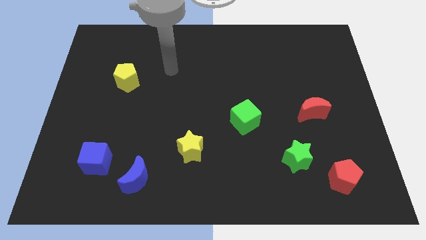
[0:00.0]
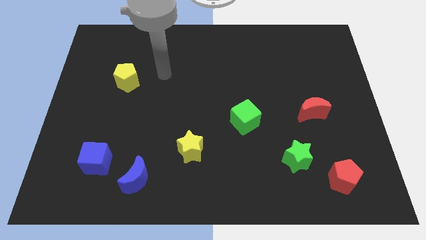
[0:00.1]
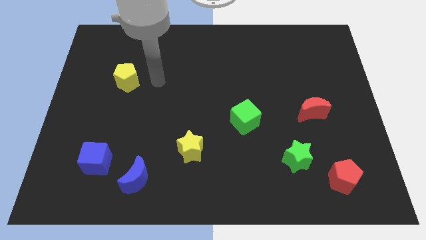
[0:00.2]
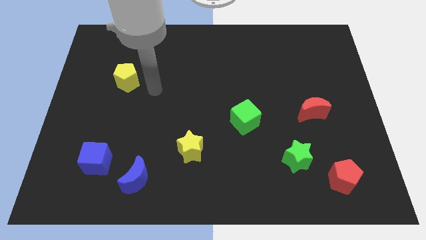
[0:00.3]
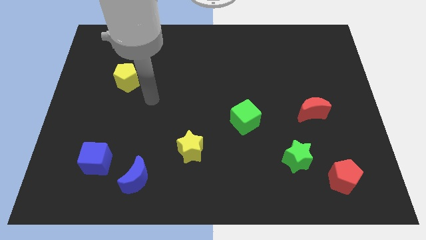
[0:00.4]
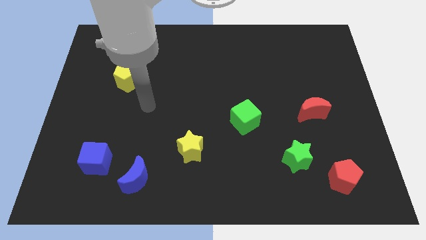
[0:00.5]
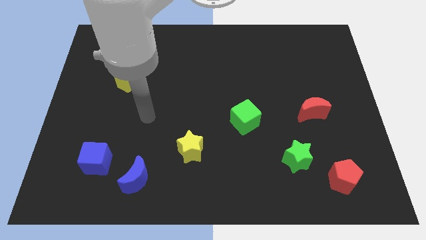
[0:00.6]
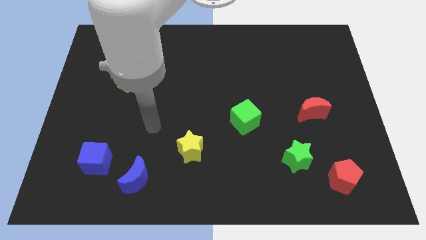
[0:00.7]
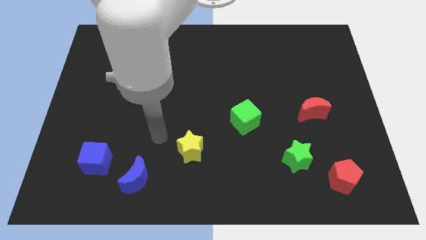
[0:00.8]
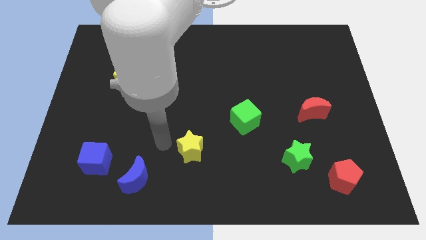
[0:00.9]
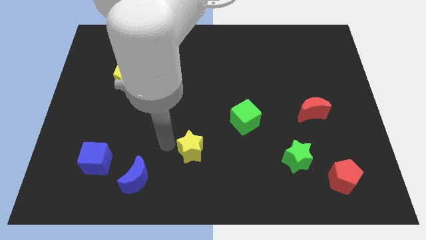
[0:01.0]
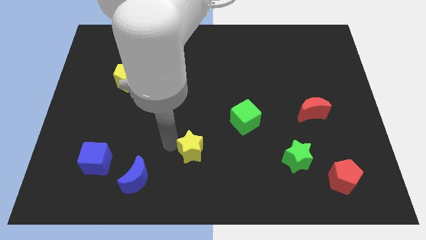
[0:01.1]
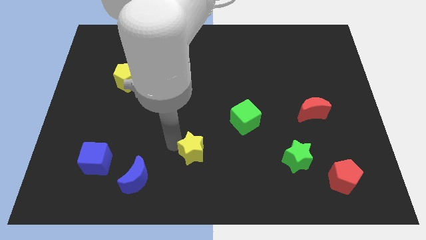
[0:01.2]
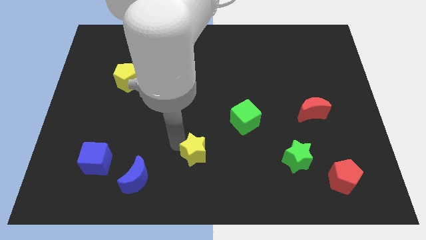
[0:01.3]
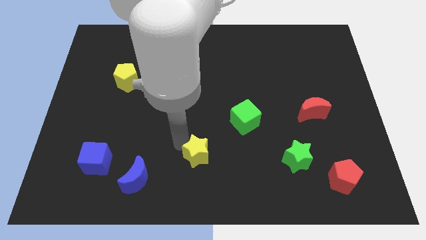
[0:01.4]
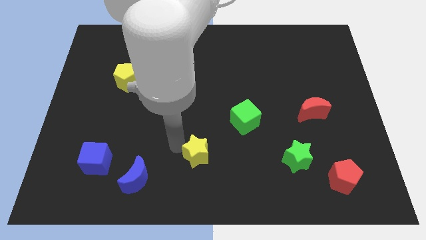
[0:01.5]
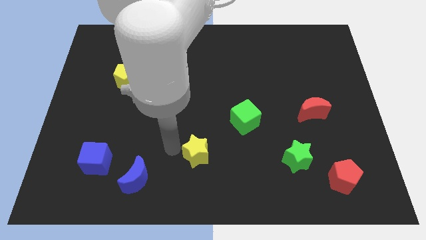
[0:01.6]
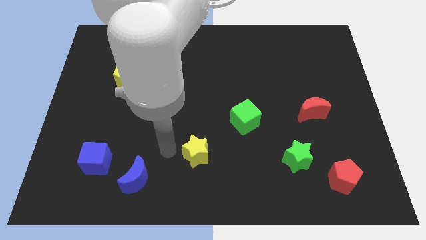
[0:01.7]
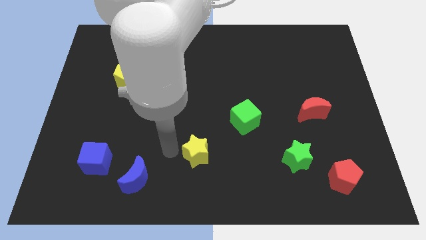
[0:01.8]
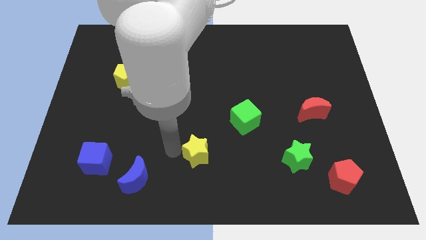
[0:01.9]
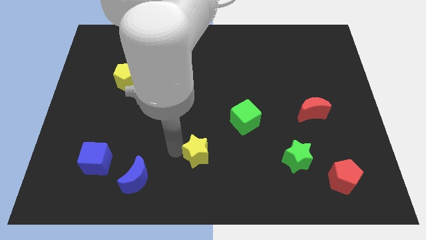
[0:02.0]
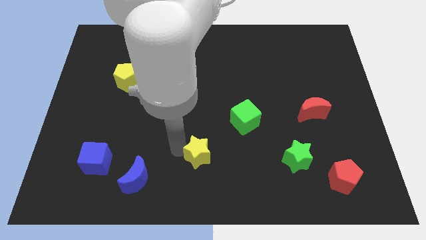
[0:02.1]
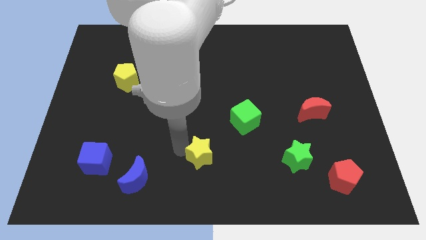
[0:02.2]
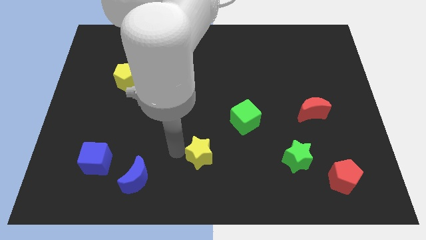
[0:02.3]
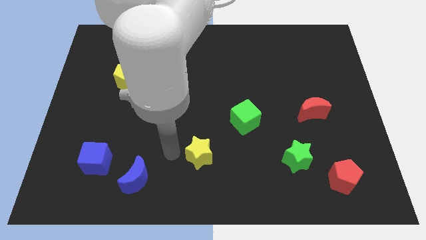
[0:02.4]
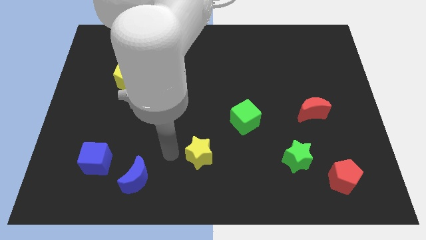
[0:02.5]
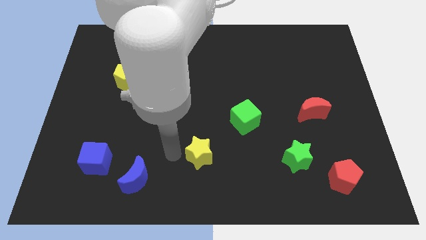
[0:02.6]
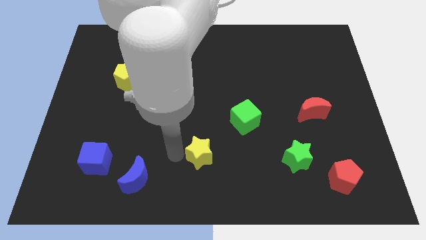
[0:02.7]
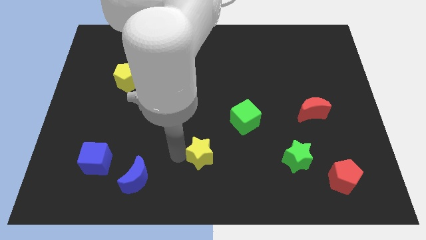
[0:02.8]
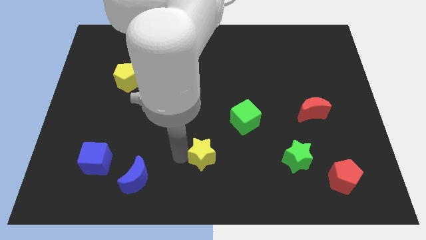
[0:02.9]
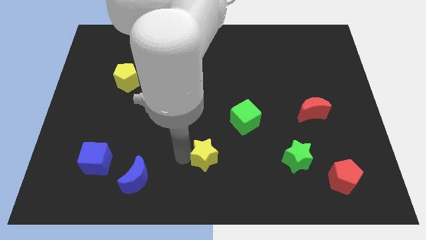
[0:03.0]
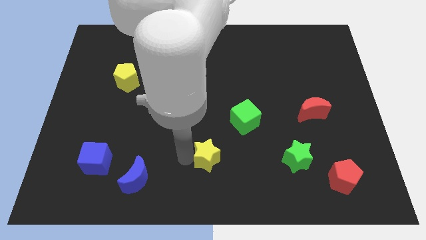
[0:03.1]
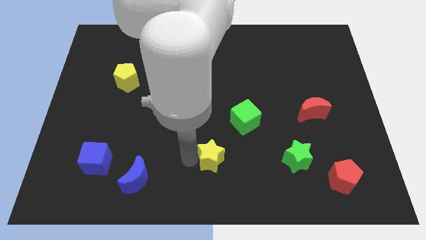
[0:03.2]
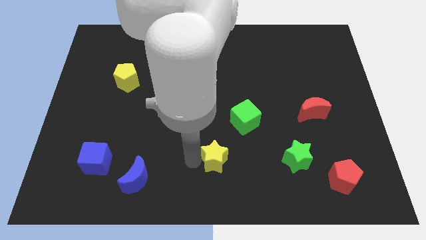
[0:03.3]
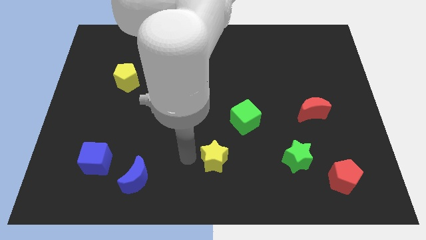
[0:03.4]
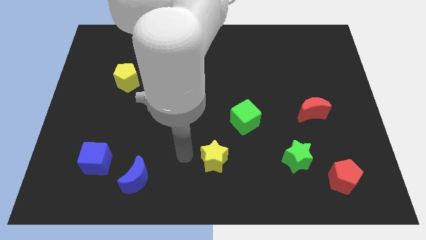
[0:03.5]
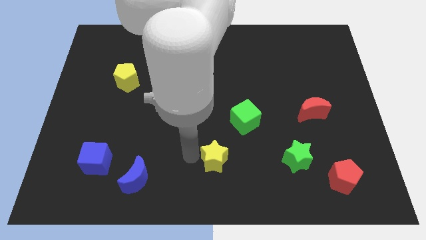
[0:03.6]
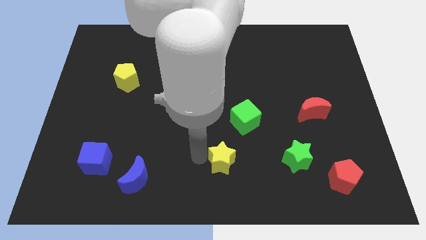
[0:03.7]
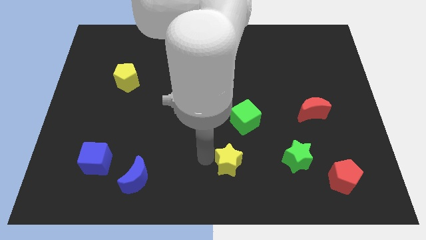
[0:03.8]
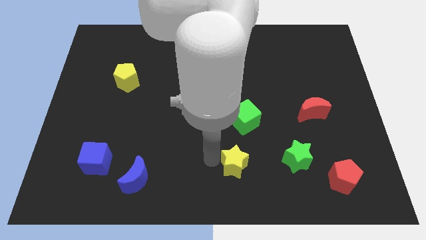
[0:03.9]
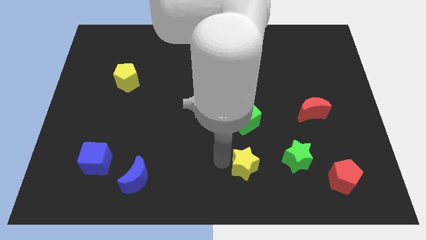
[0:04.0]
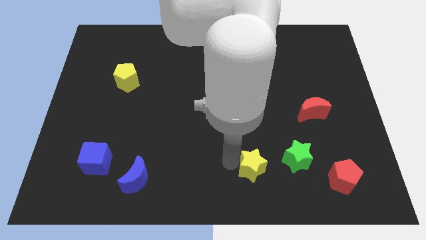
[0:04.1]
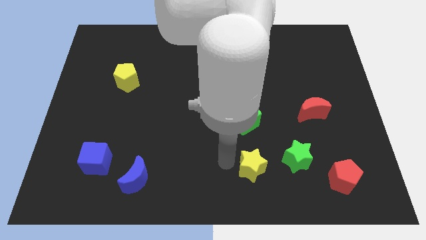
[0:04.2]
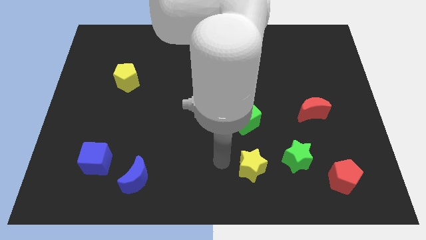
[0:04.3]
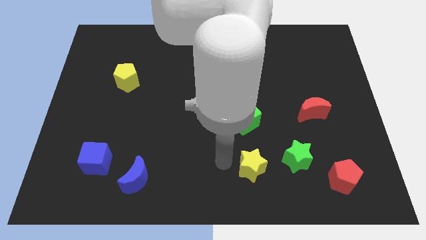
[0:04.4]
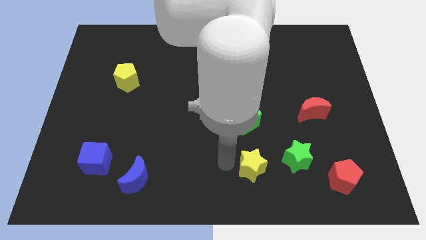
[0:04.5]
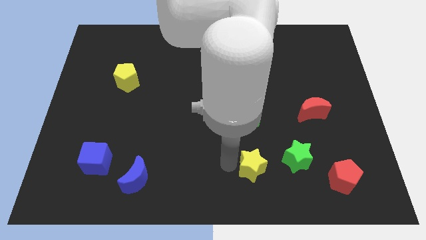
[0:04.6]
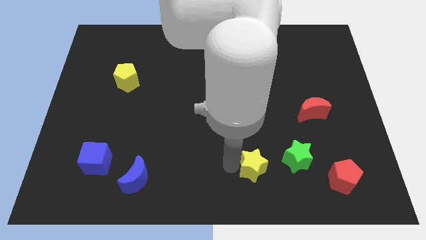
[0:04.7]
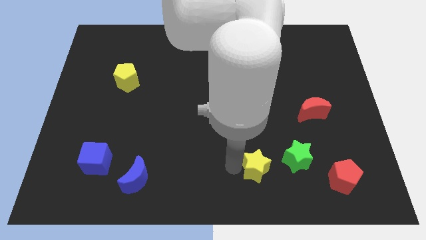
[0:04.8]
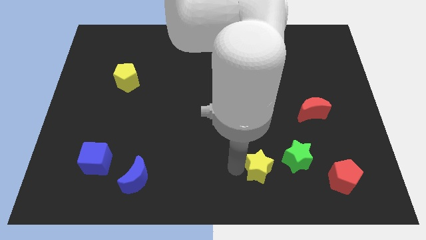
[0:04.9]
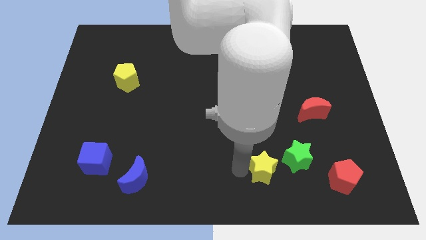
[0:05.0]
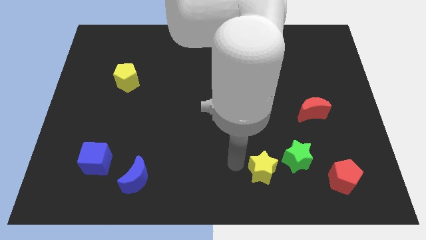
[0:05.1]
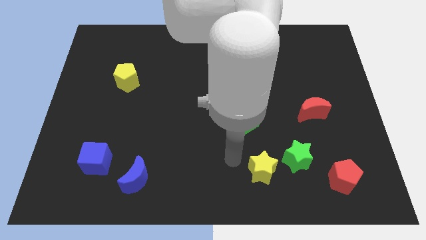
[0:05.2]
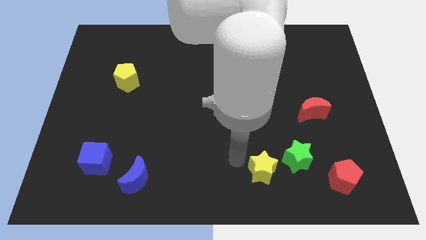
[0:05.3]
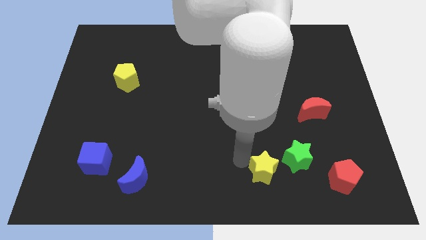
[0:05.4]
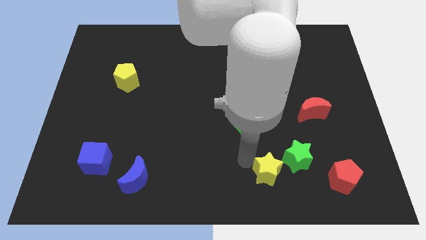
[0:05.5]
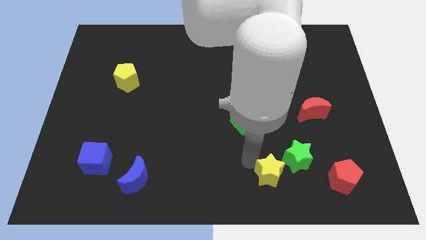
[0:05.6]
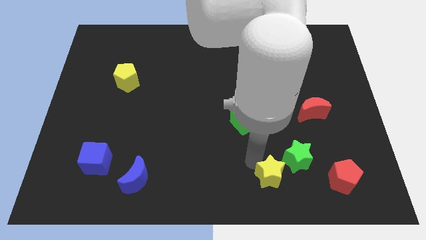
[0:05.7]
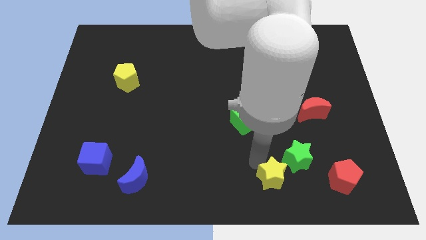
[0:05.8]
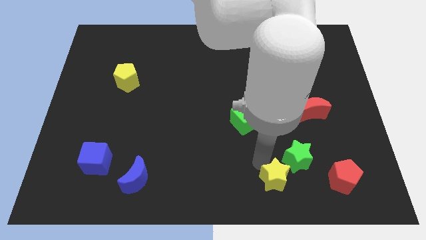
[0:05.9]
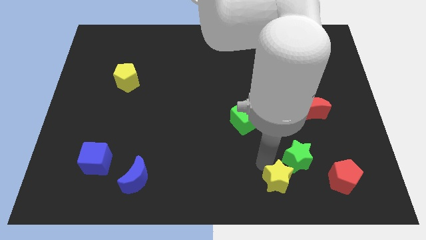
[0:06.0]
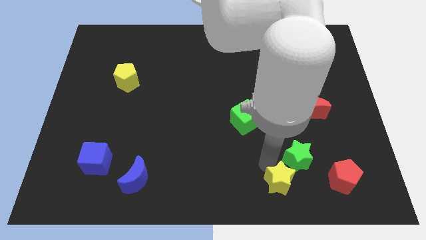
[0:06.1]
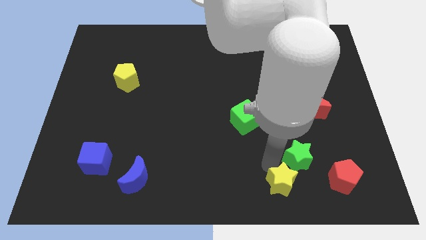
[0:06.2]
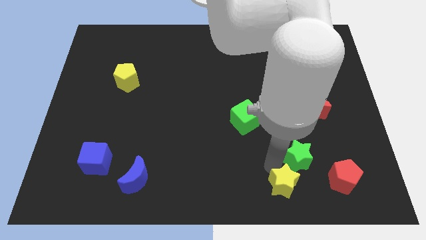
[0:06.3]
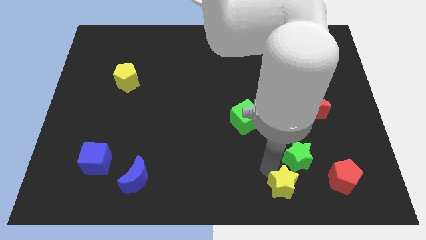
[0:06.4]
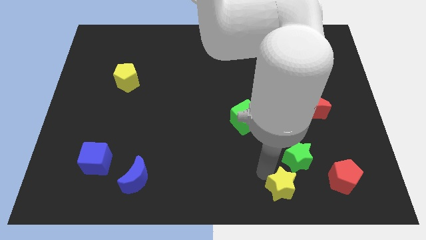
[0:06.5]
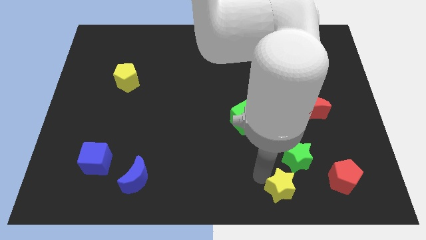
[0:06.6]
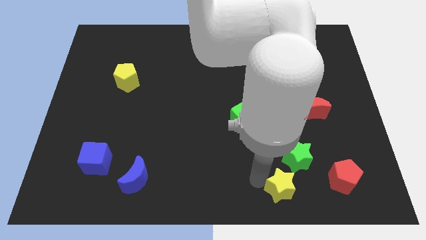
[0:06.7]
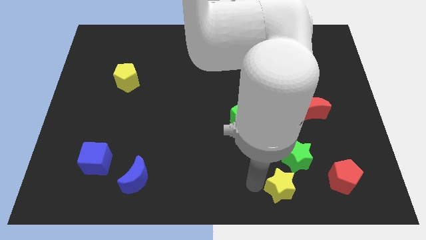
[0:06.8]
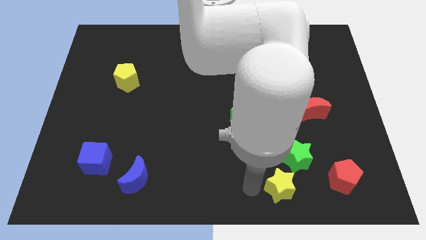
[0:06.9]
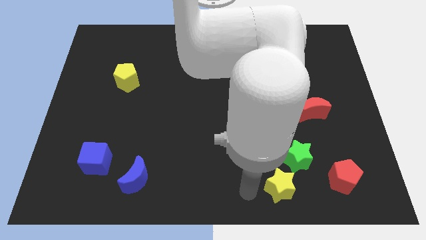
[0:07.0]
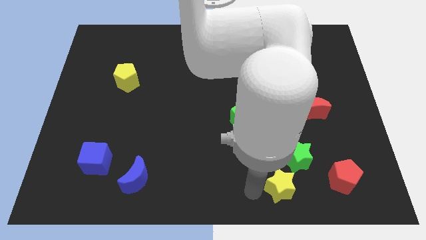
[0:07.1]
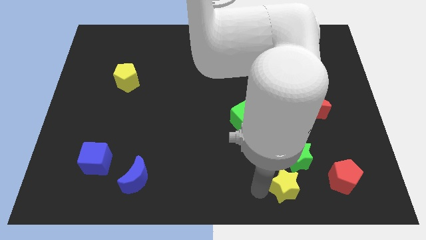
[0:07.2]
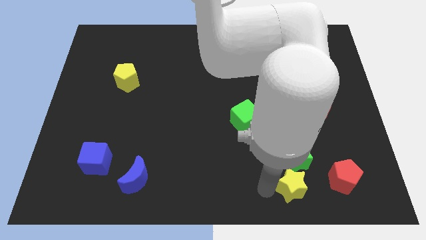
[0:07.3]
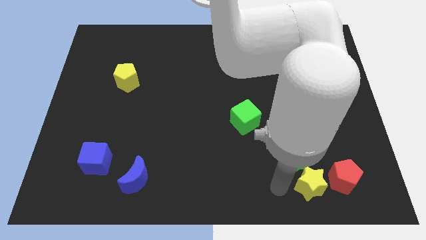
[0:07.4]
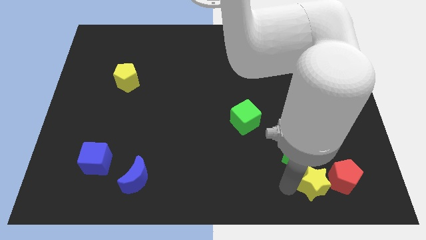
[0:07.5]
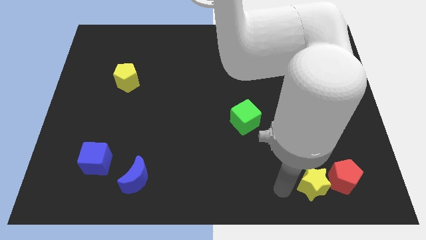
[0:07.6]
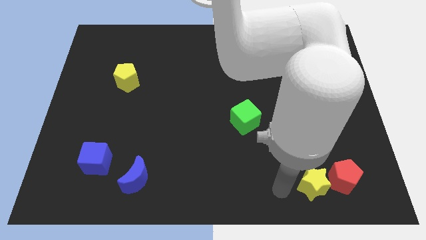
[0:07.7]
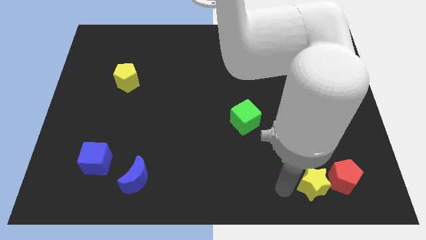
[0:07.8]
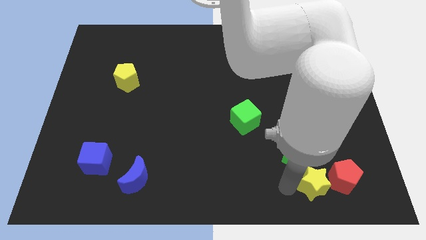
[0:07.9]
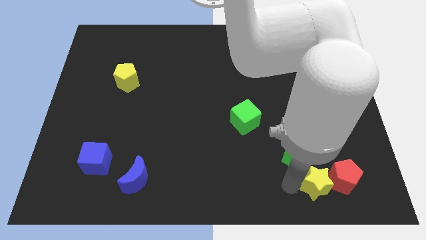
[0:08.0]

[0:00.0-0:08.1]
move the yellow star to the red pentagon
